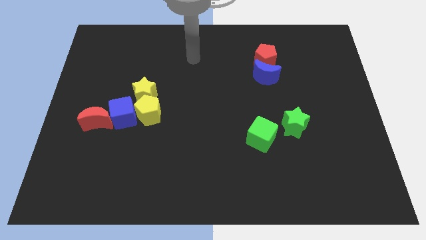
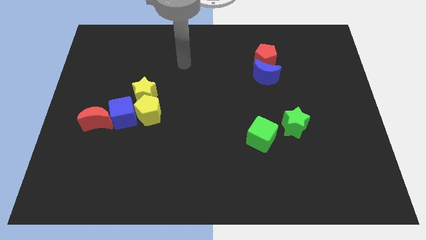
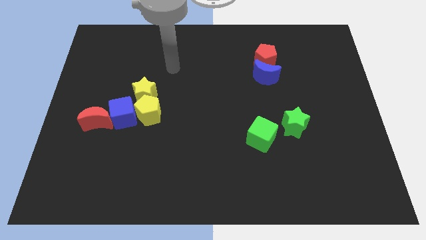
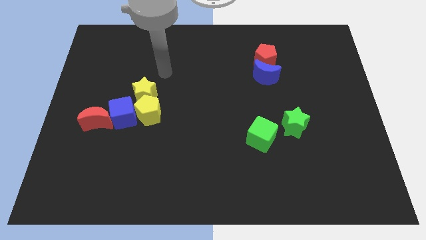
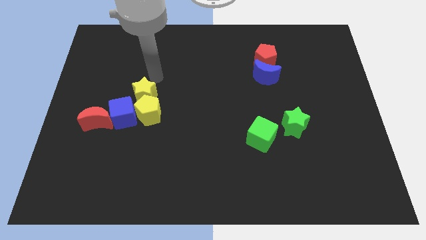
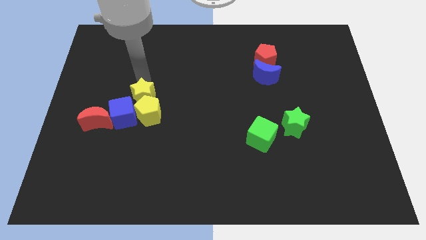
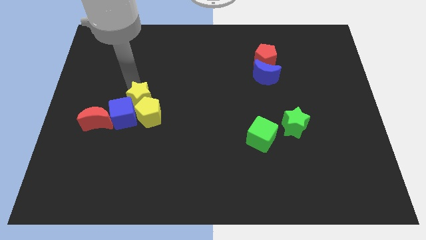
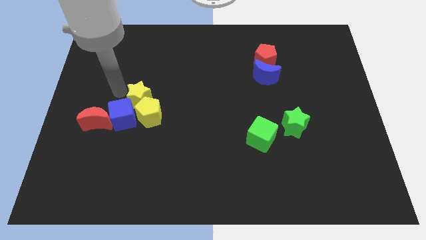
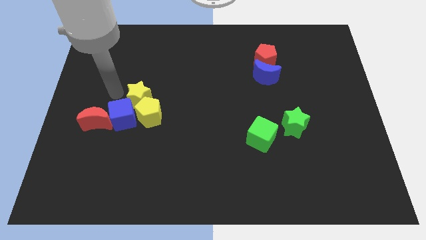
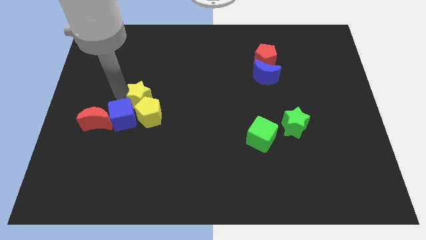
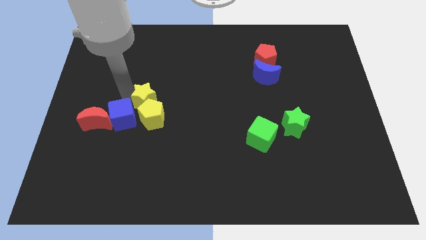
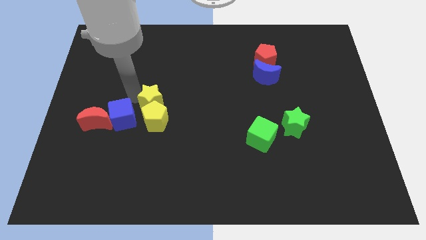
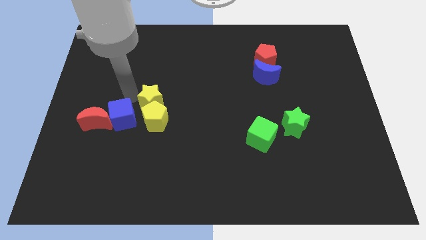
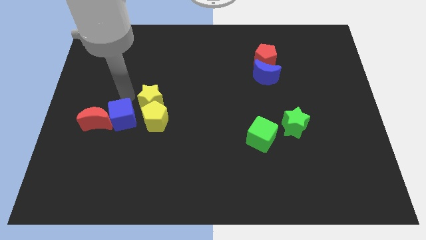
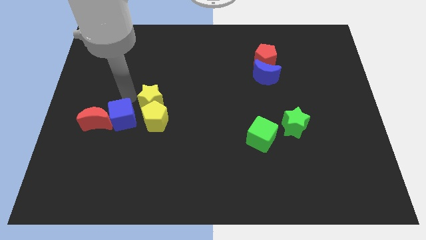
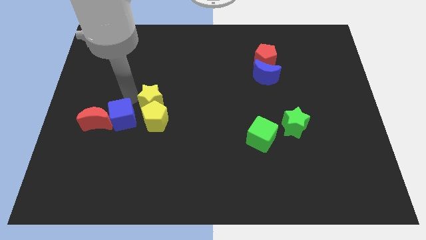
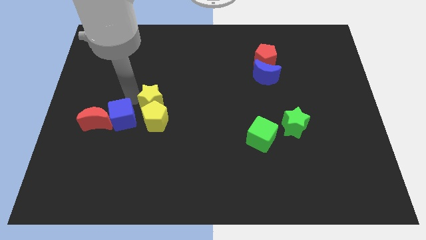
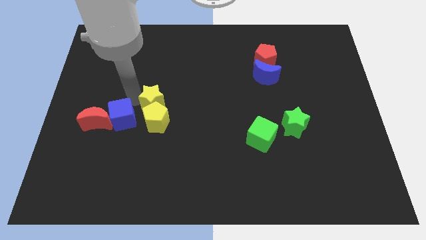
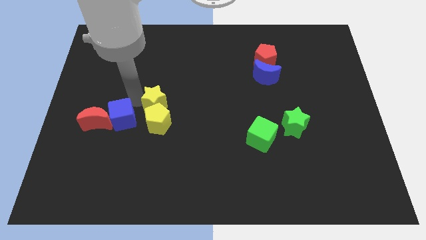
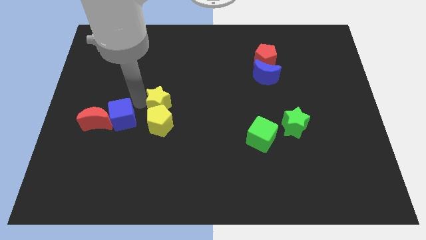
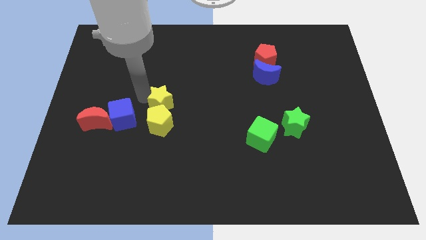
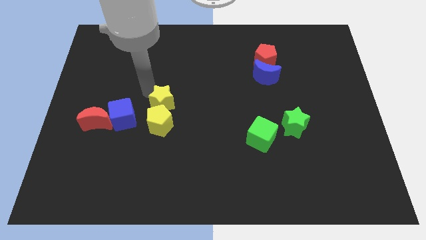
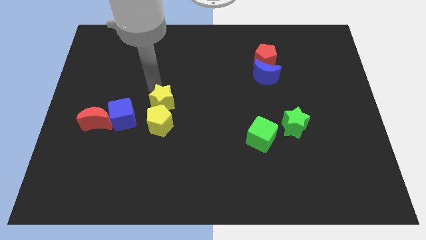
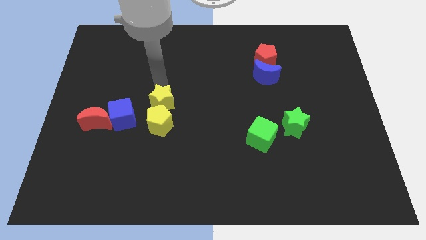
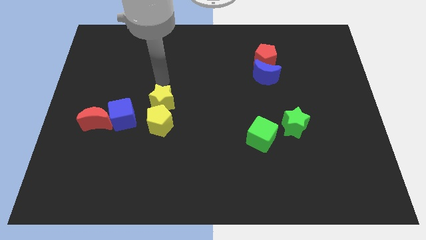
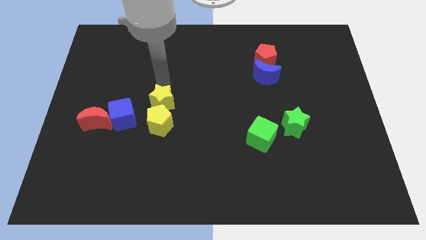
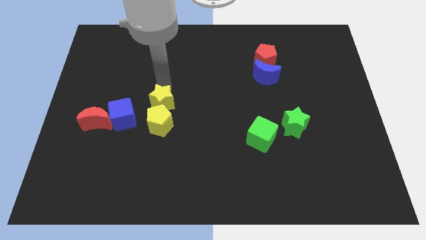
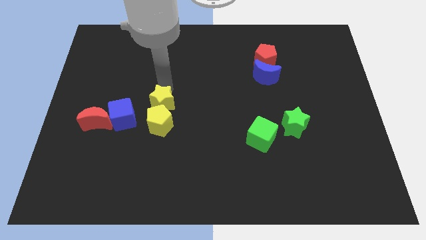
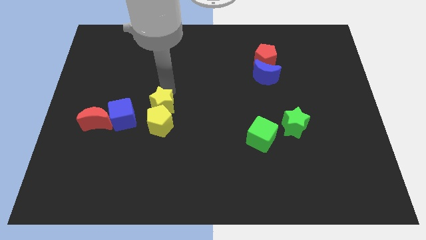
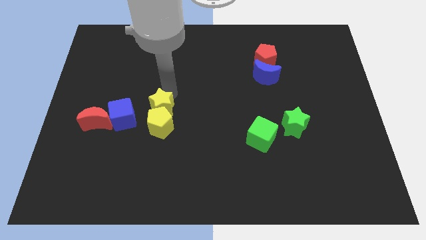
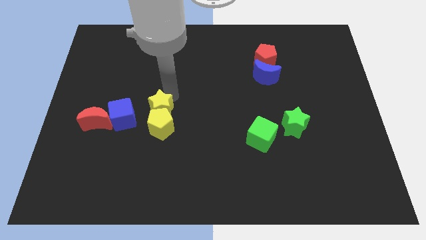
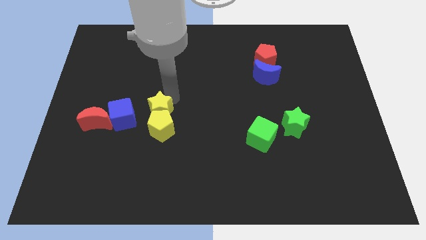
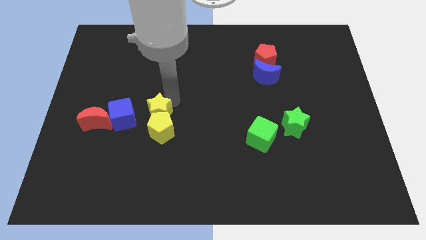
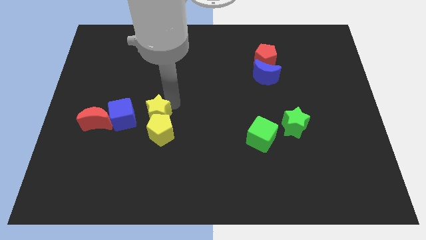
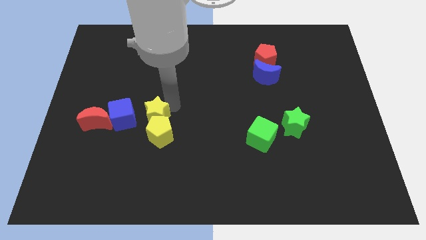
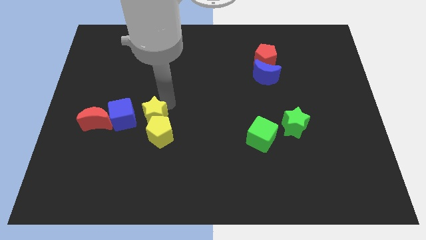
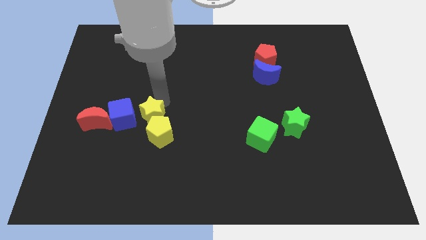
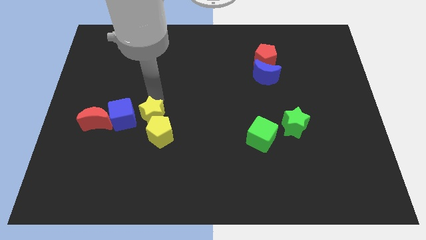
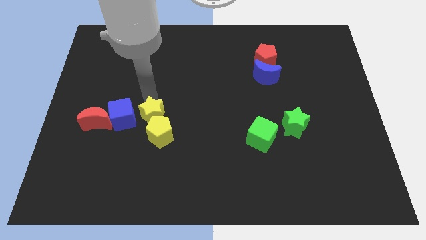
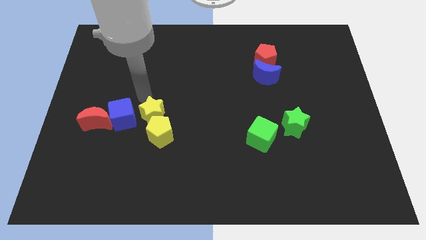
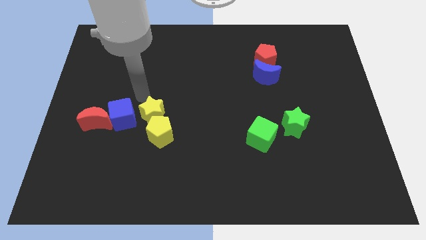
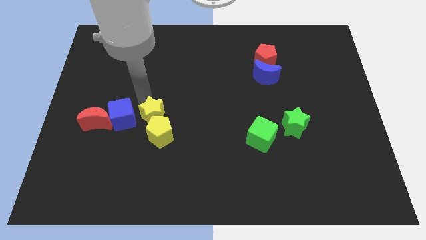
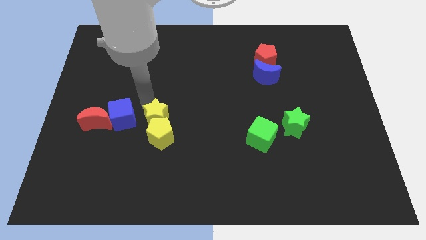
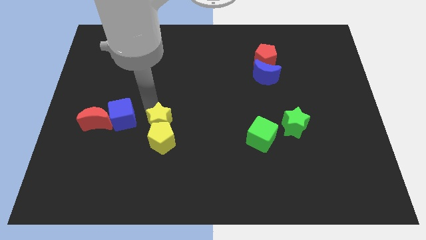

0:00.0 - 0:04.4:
slightly move the yellow star downwards

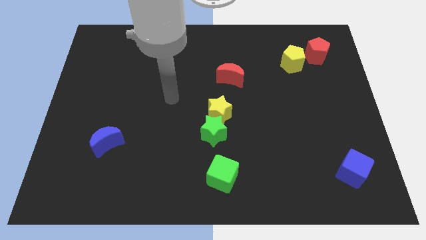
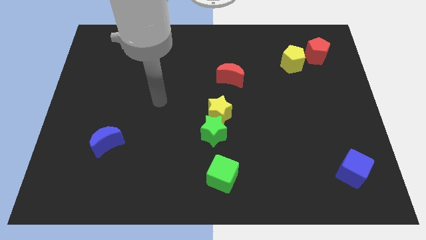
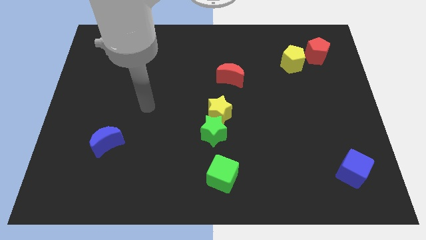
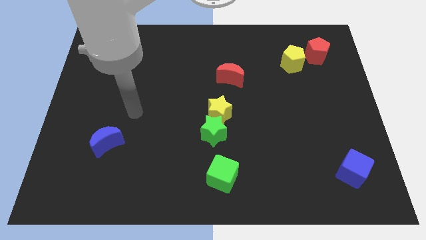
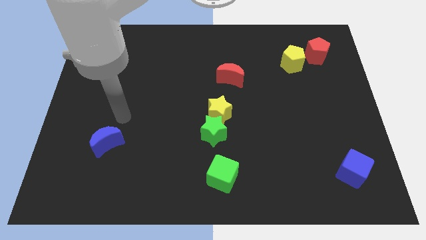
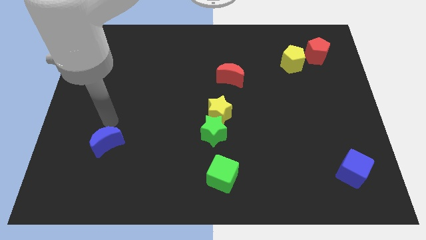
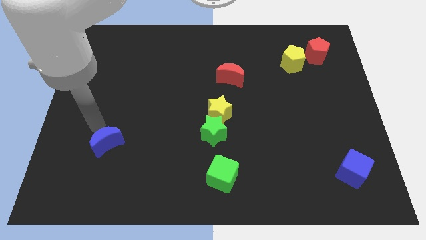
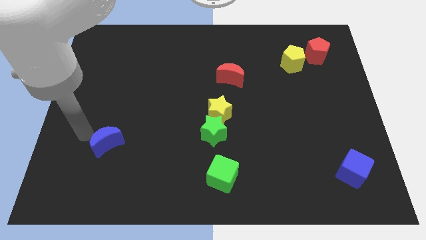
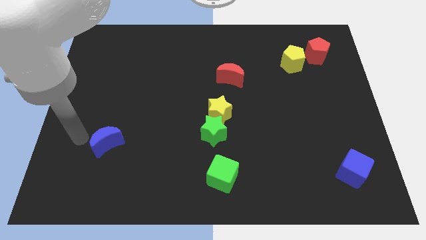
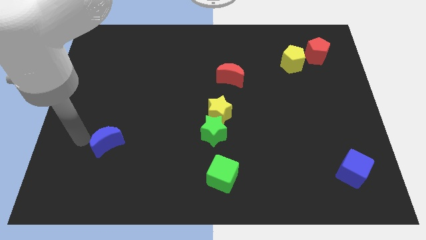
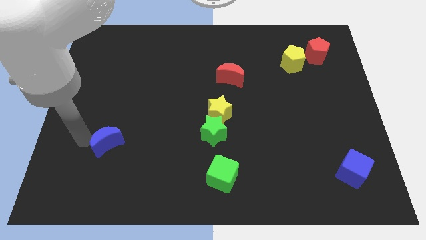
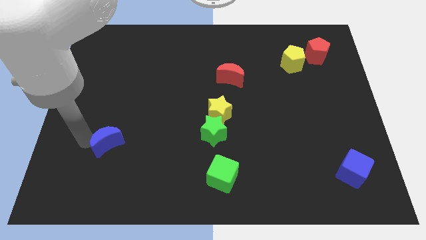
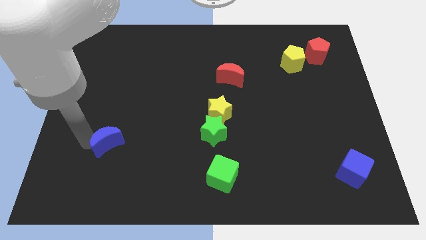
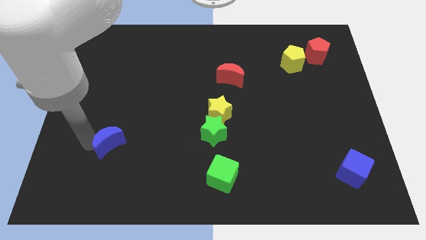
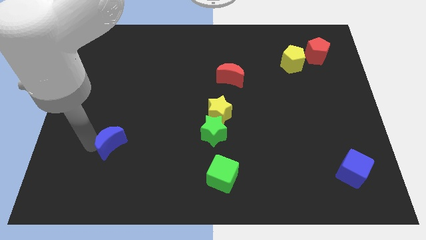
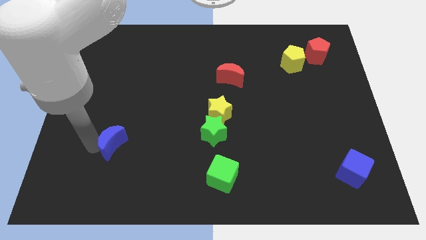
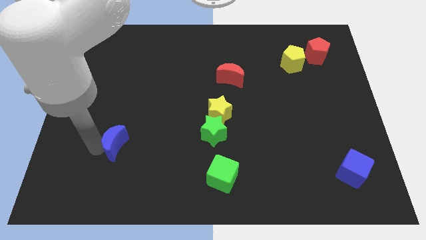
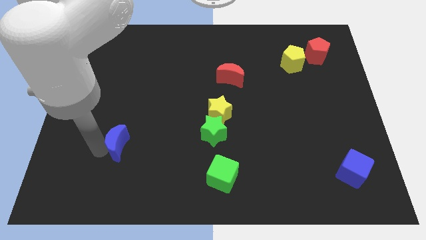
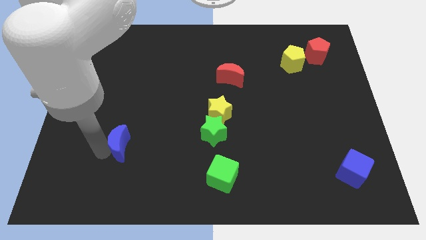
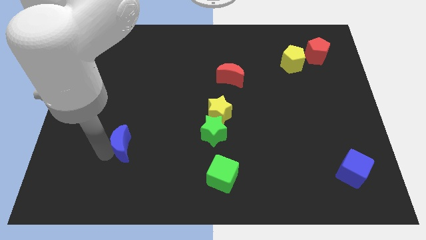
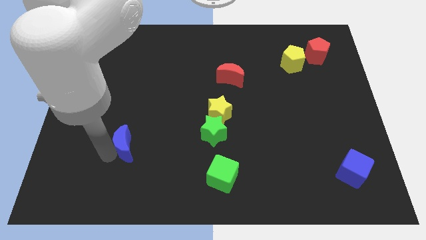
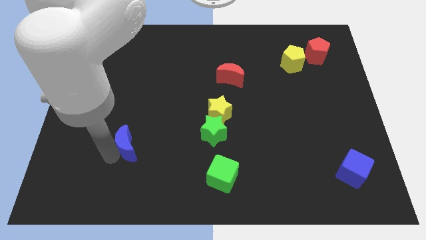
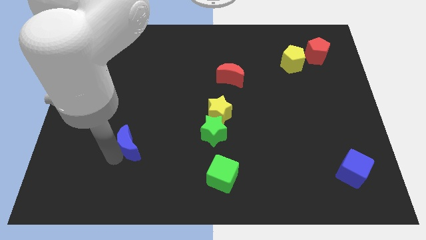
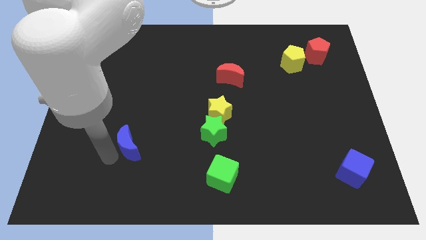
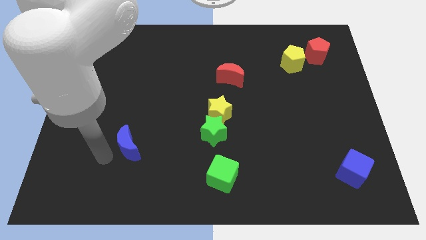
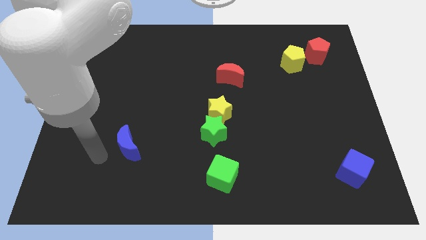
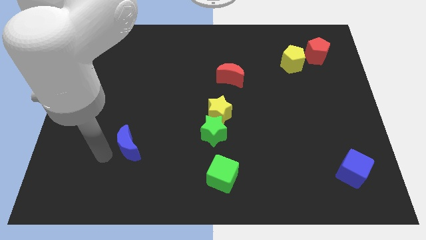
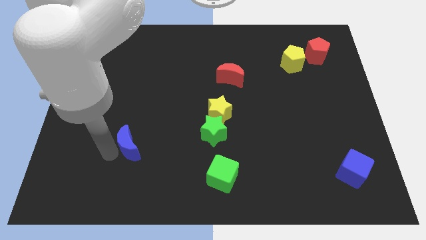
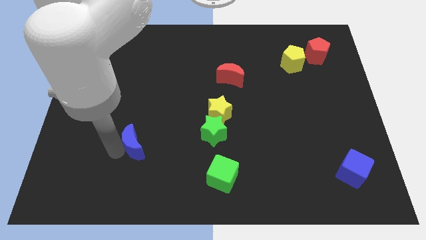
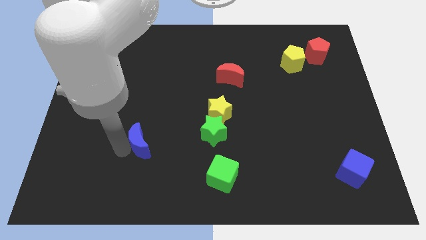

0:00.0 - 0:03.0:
slide the blue moon somewhat right

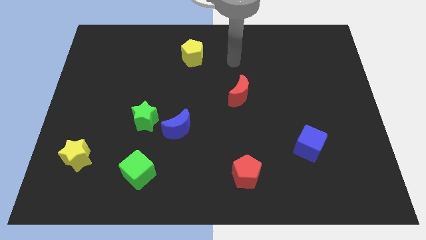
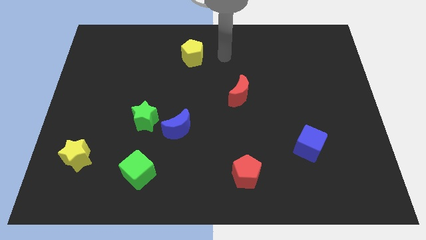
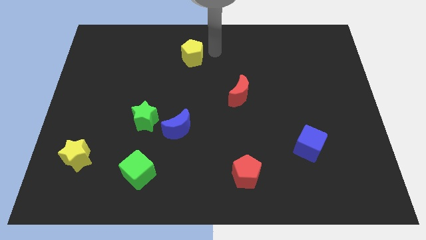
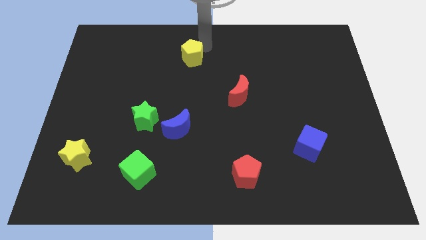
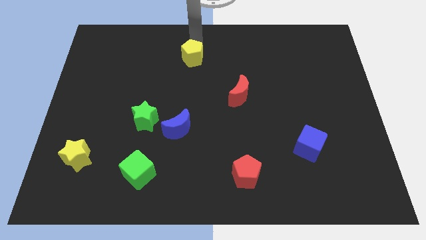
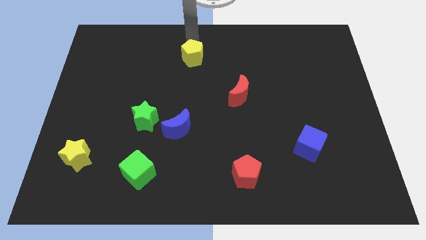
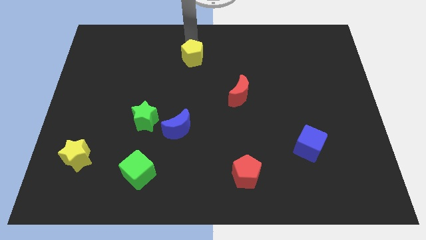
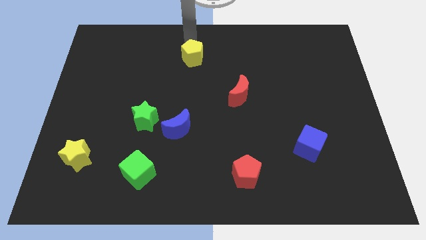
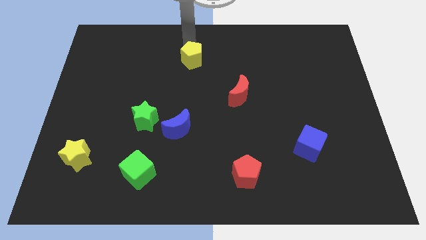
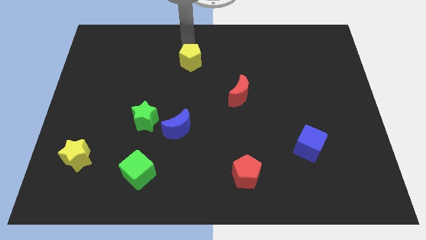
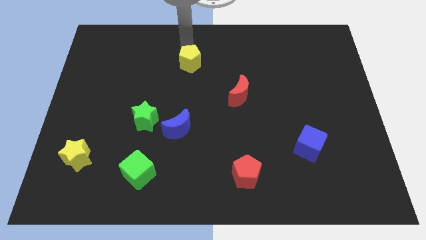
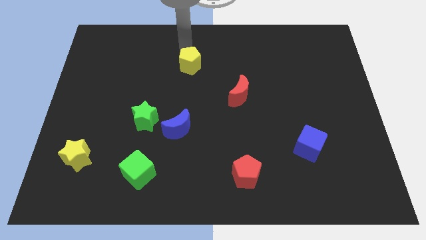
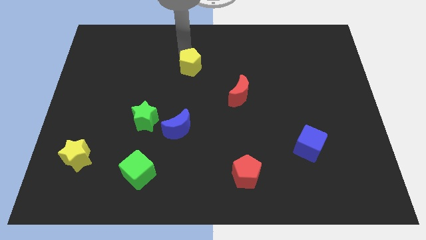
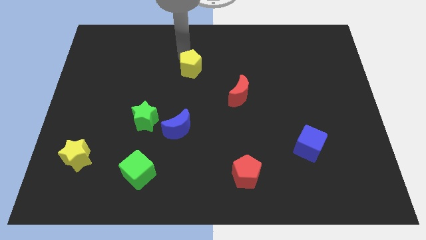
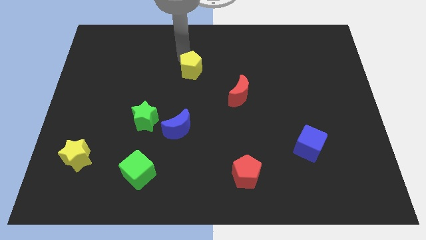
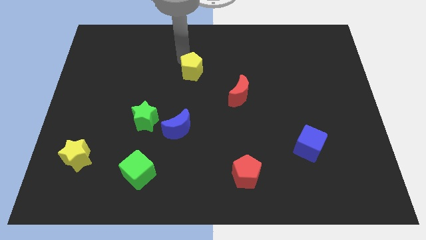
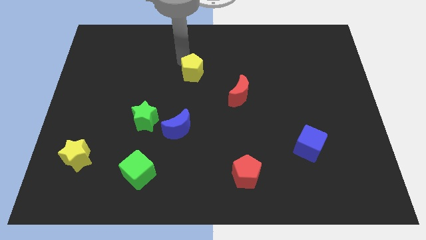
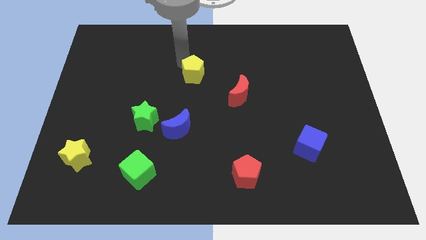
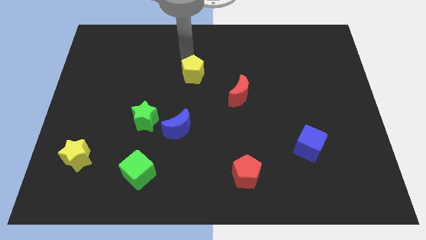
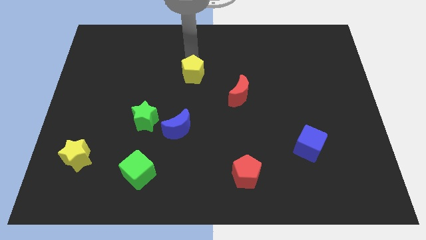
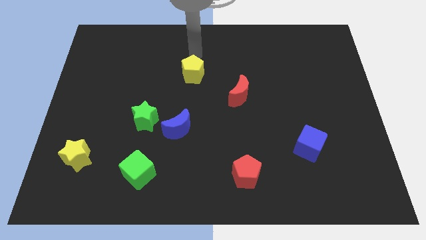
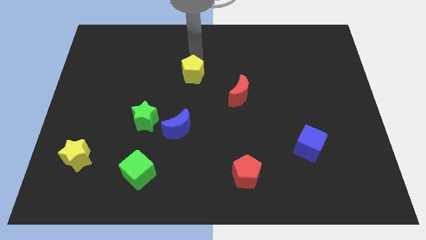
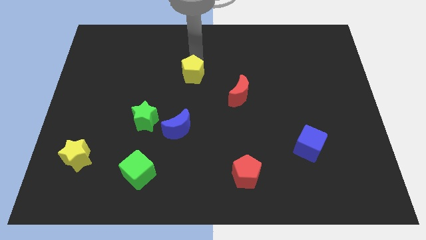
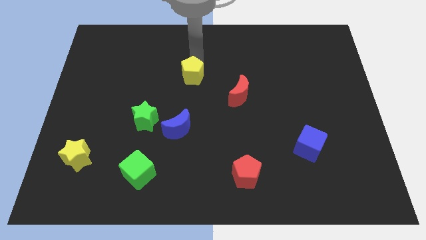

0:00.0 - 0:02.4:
push the yellow pentagon downwards a little bit
